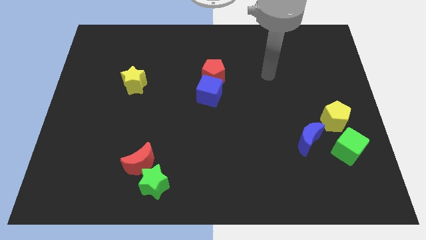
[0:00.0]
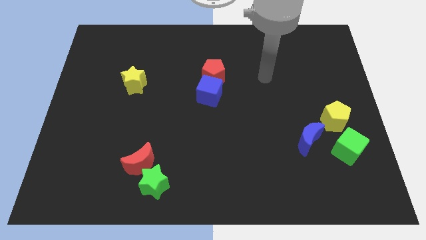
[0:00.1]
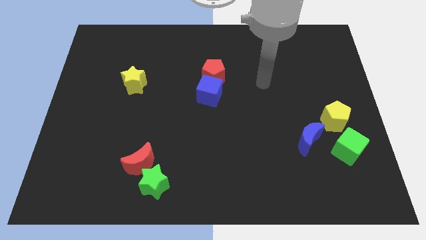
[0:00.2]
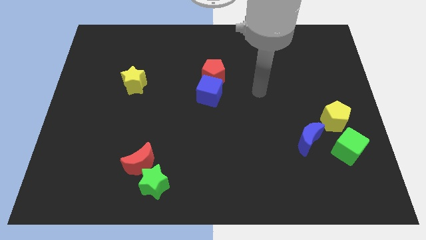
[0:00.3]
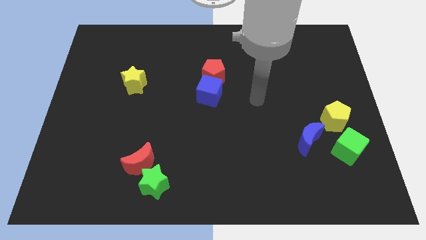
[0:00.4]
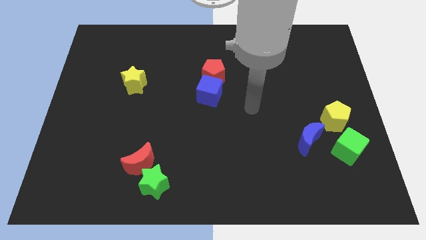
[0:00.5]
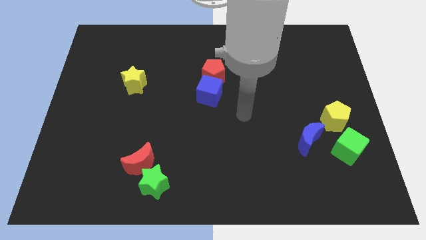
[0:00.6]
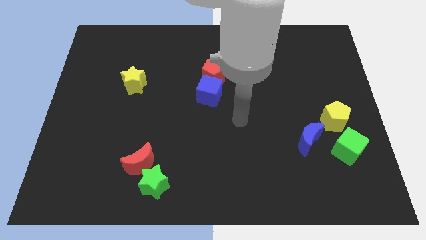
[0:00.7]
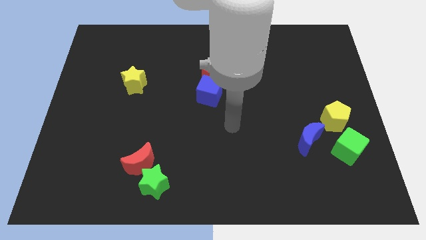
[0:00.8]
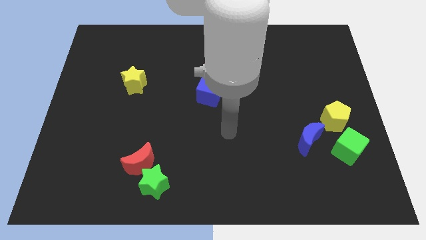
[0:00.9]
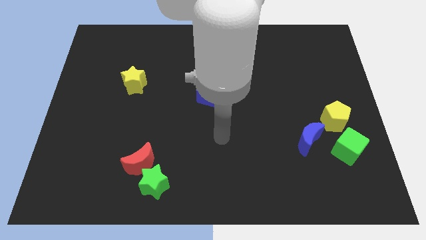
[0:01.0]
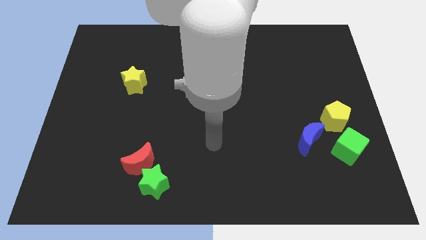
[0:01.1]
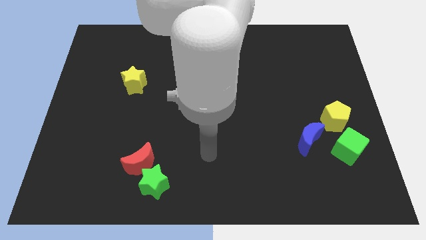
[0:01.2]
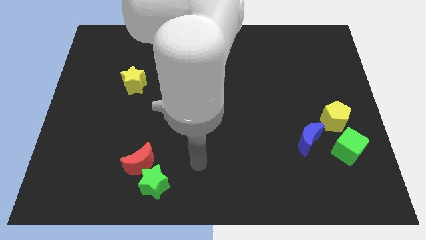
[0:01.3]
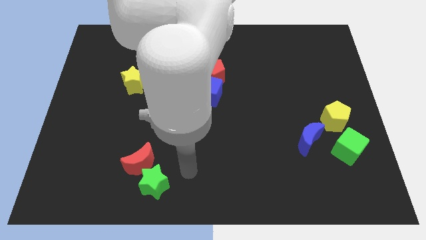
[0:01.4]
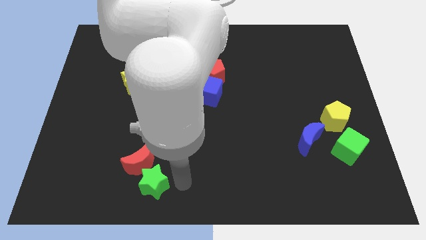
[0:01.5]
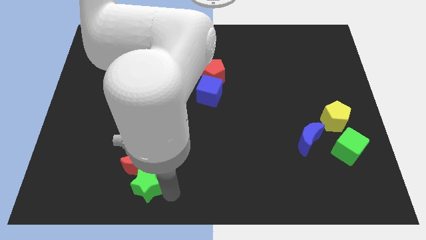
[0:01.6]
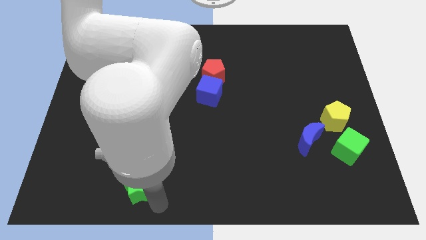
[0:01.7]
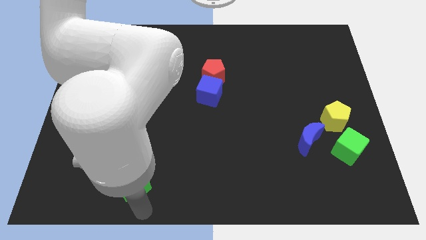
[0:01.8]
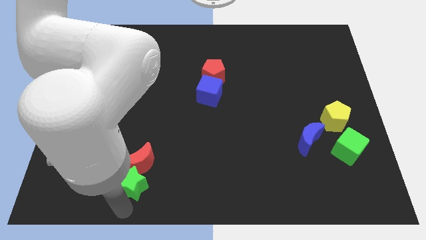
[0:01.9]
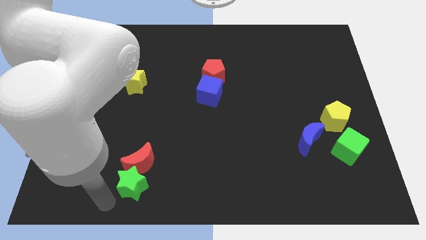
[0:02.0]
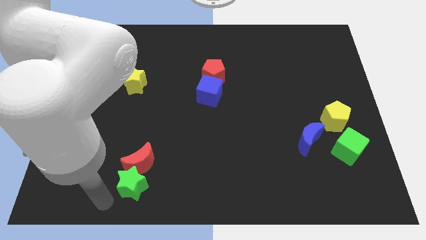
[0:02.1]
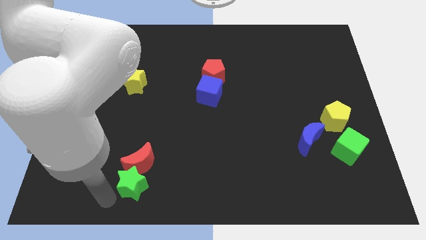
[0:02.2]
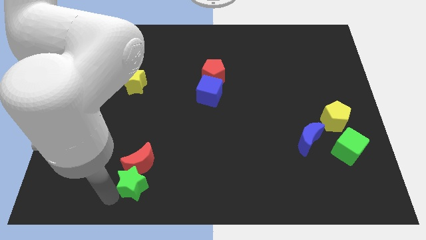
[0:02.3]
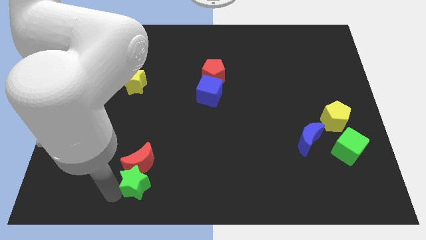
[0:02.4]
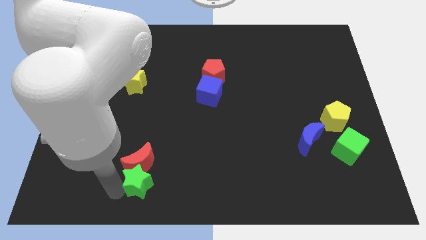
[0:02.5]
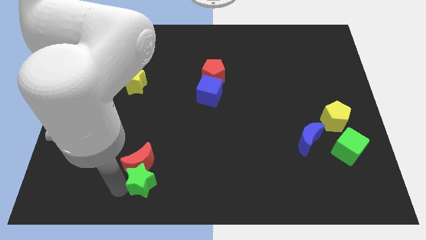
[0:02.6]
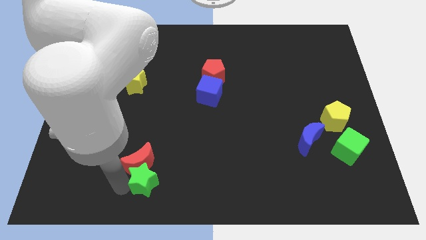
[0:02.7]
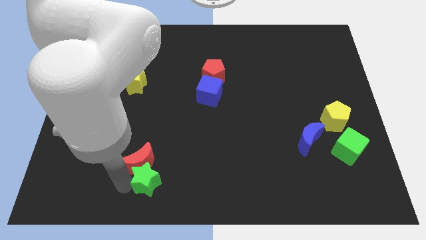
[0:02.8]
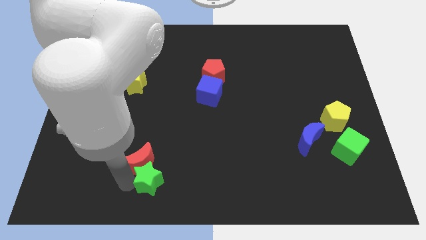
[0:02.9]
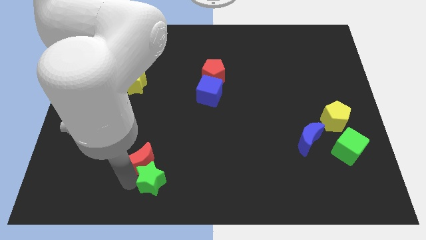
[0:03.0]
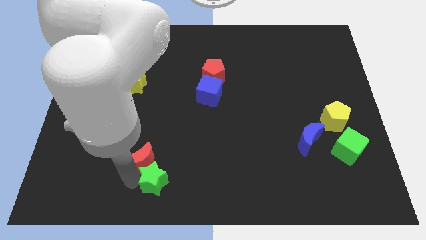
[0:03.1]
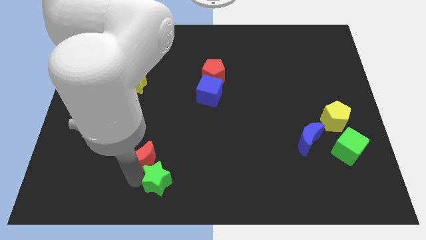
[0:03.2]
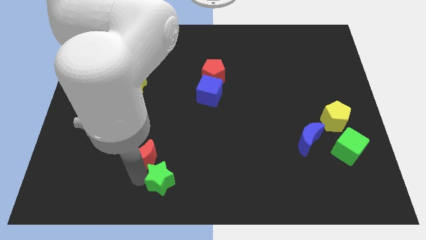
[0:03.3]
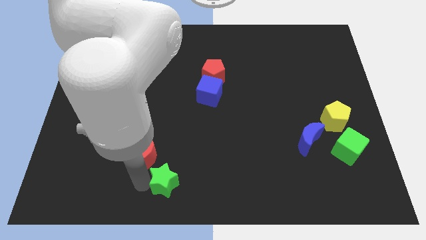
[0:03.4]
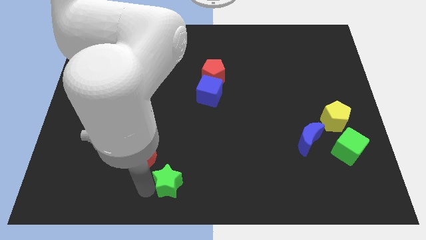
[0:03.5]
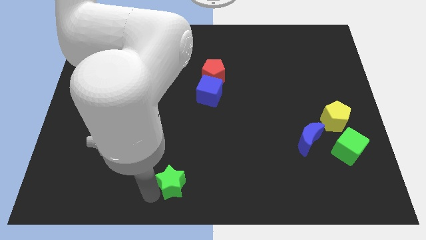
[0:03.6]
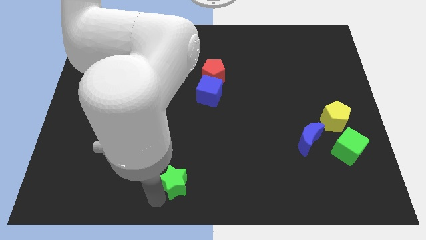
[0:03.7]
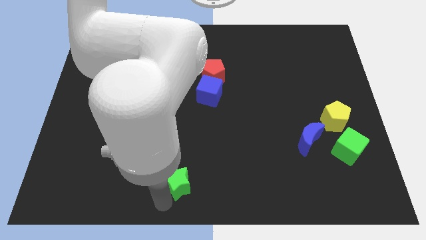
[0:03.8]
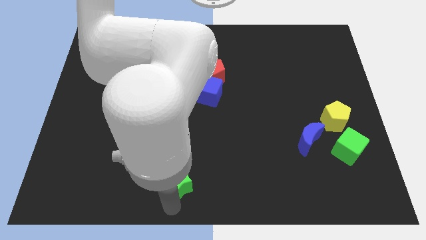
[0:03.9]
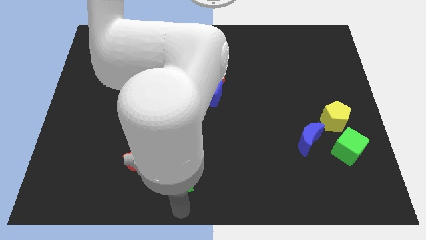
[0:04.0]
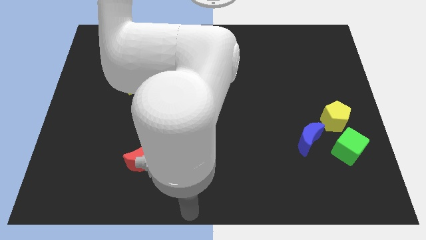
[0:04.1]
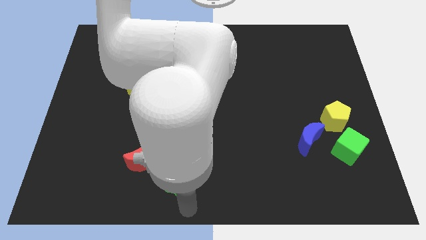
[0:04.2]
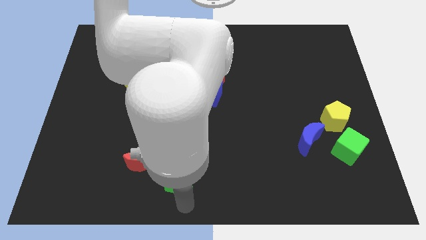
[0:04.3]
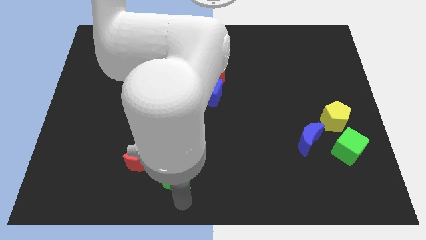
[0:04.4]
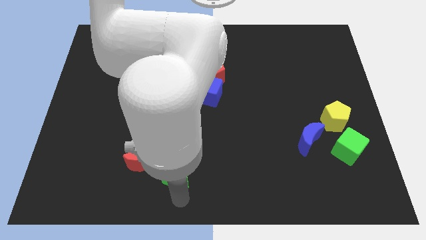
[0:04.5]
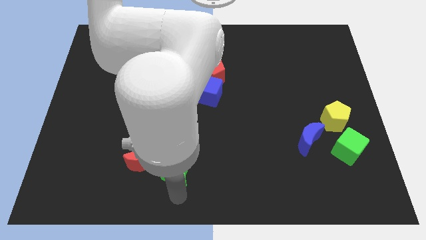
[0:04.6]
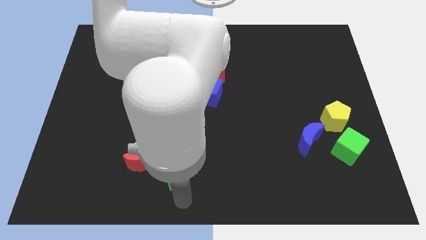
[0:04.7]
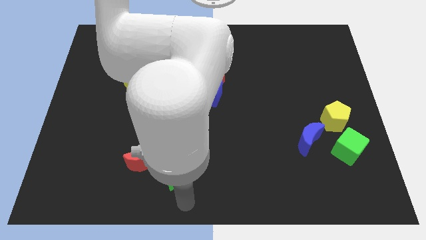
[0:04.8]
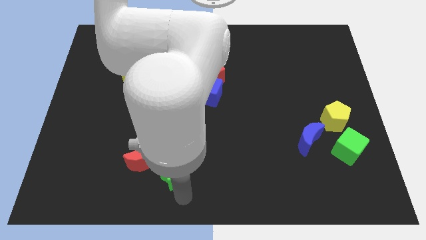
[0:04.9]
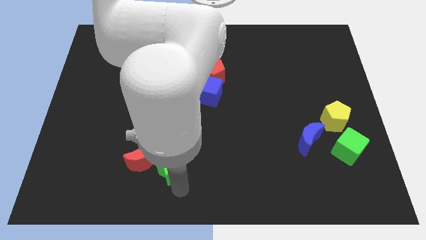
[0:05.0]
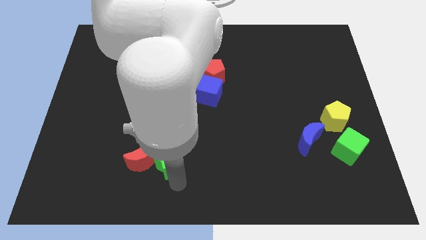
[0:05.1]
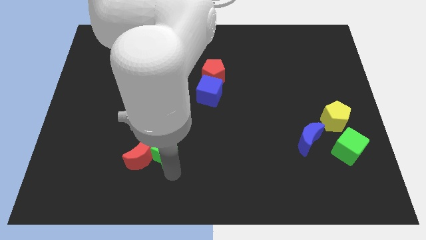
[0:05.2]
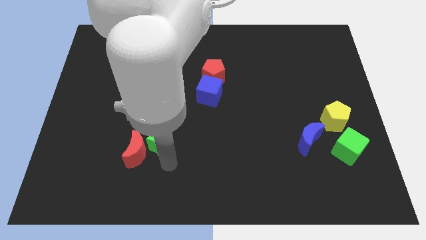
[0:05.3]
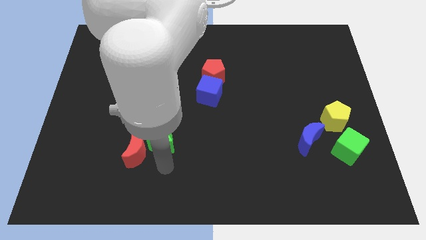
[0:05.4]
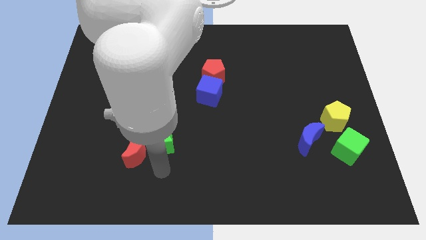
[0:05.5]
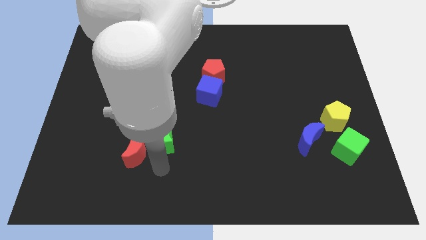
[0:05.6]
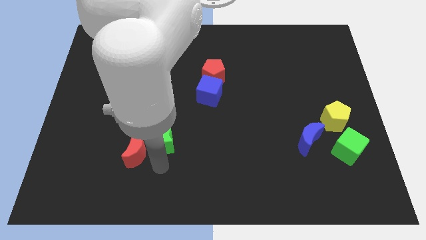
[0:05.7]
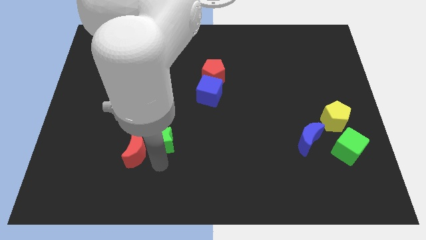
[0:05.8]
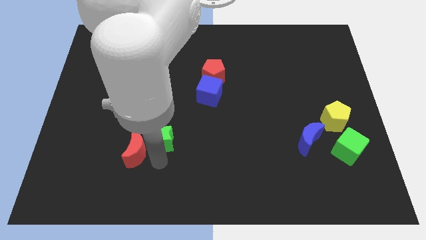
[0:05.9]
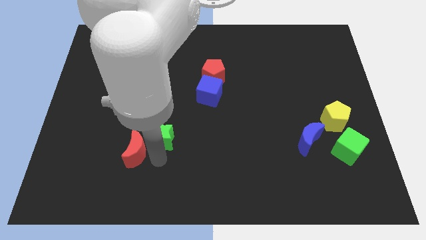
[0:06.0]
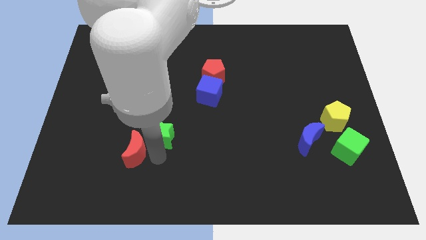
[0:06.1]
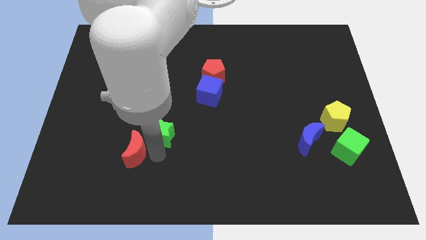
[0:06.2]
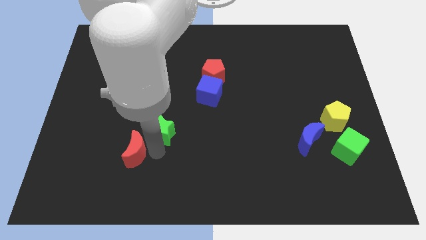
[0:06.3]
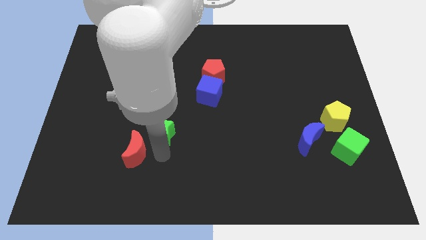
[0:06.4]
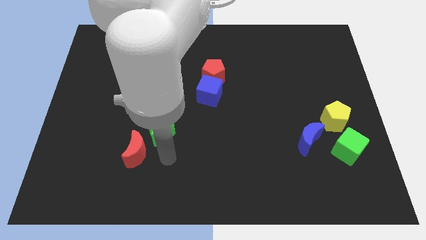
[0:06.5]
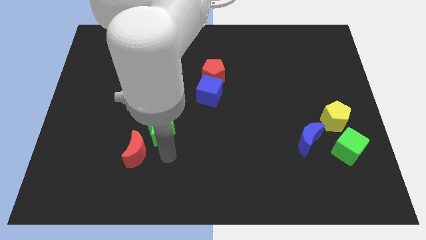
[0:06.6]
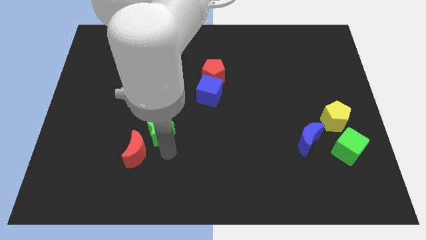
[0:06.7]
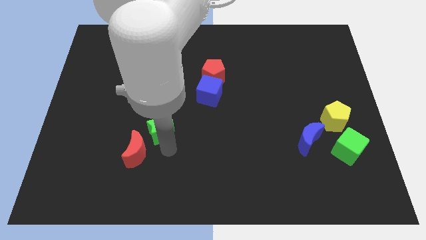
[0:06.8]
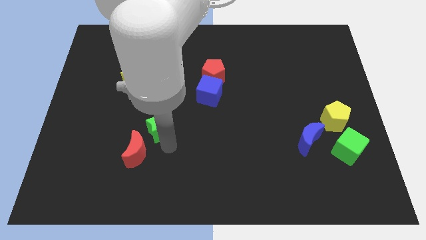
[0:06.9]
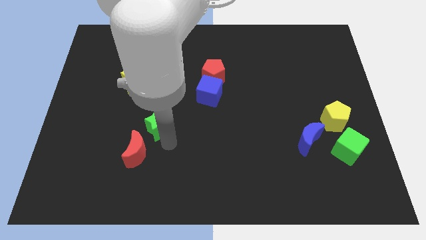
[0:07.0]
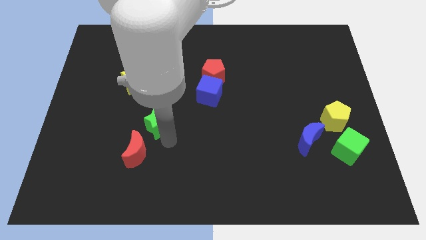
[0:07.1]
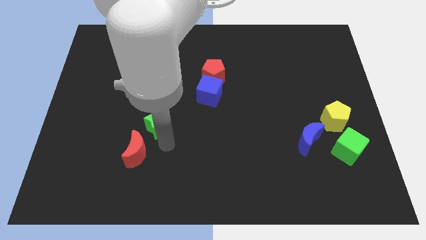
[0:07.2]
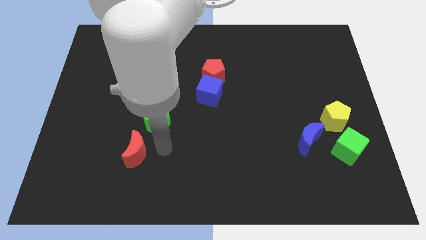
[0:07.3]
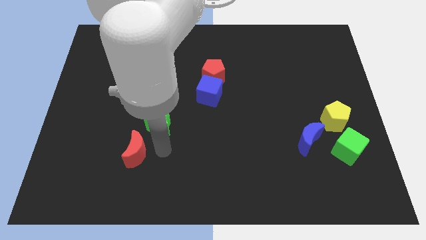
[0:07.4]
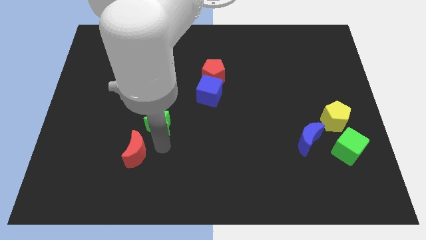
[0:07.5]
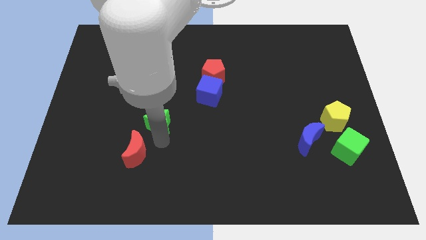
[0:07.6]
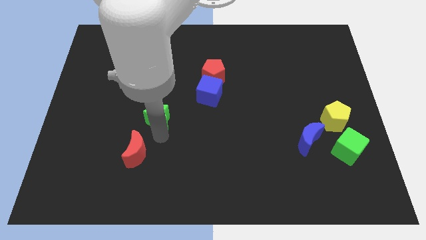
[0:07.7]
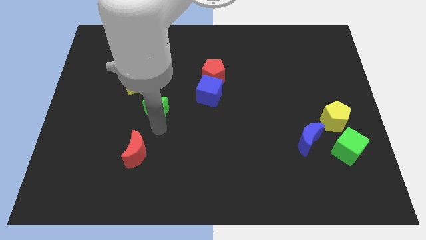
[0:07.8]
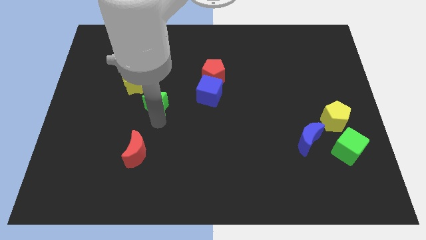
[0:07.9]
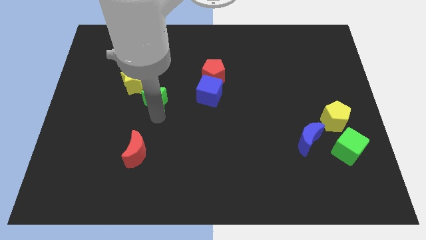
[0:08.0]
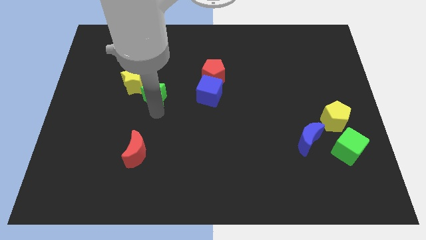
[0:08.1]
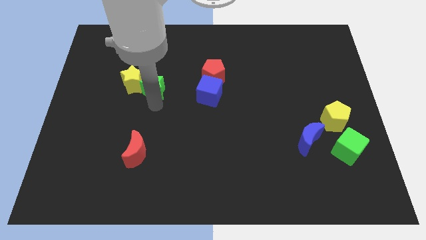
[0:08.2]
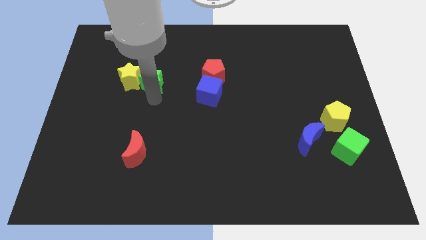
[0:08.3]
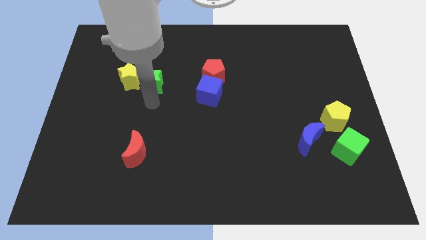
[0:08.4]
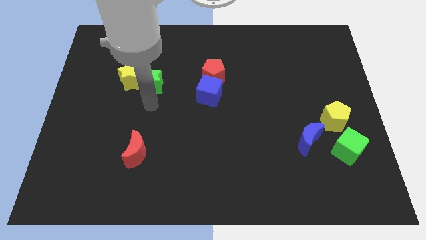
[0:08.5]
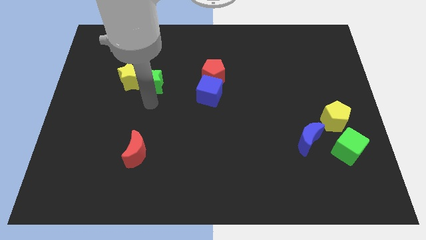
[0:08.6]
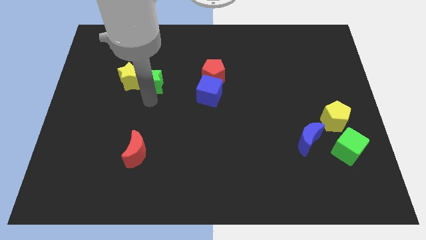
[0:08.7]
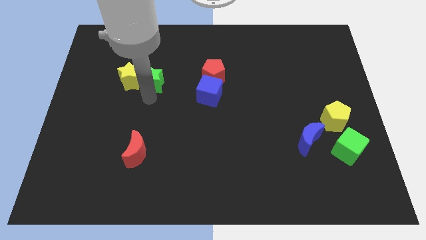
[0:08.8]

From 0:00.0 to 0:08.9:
move the green star to the top right side of the yellow star
